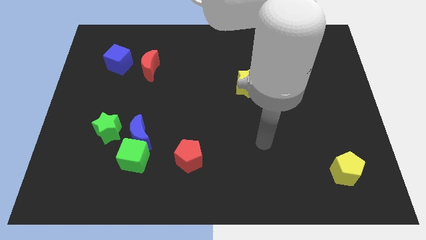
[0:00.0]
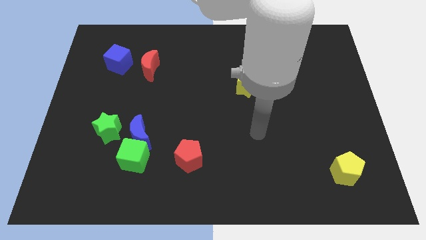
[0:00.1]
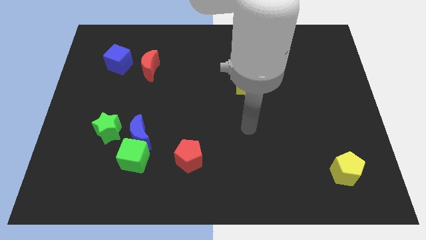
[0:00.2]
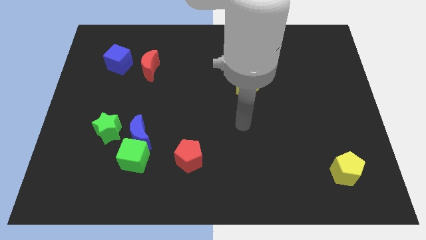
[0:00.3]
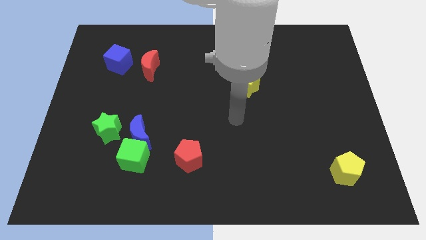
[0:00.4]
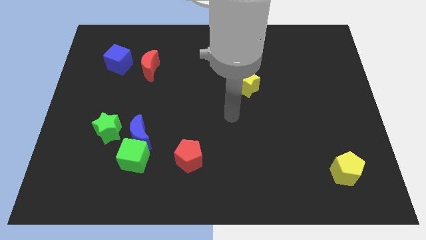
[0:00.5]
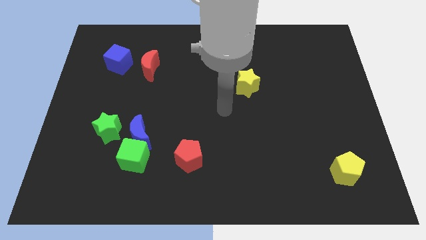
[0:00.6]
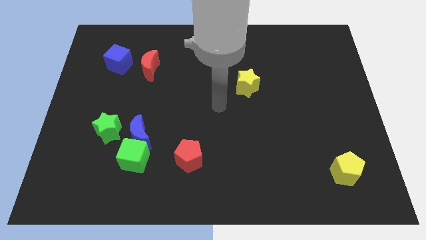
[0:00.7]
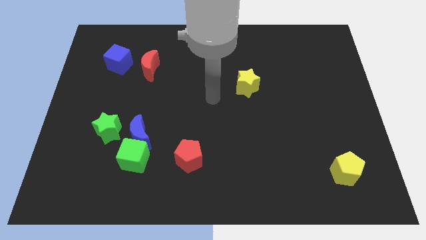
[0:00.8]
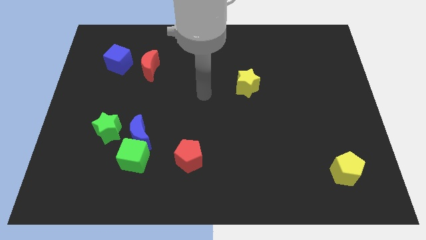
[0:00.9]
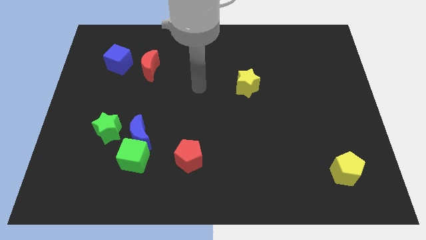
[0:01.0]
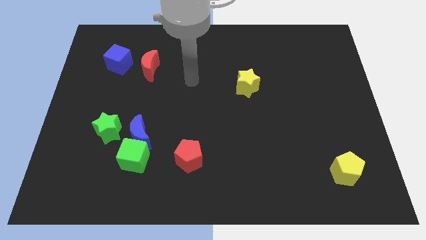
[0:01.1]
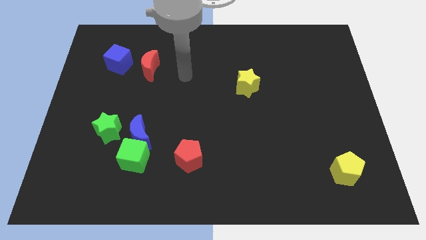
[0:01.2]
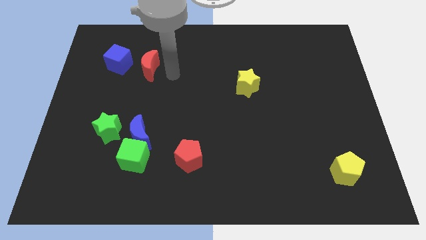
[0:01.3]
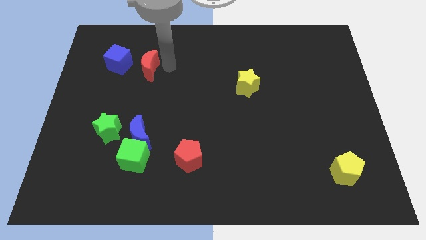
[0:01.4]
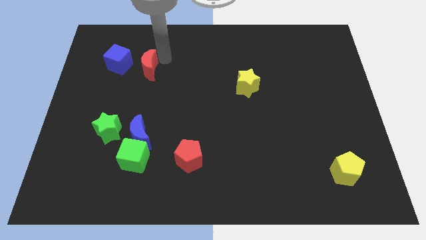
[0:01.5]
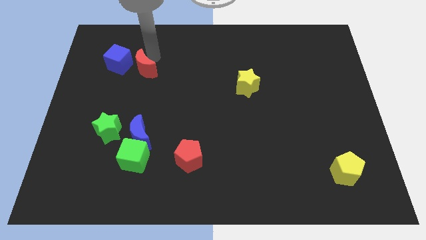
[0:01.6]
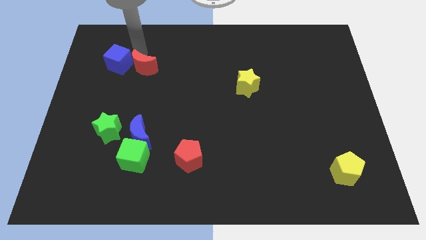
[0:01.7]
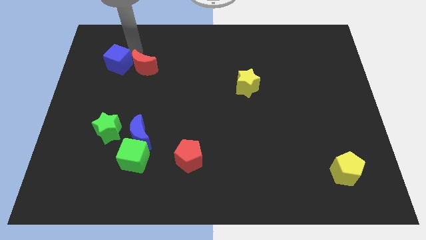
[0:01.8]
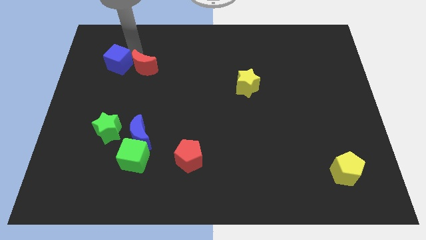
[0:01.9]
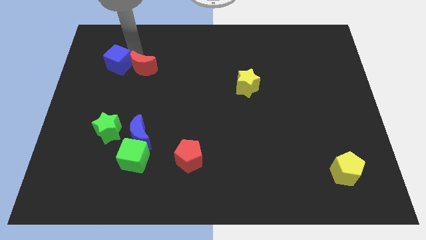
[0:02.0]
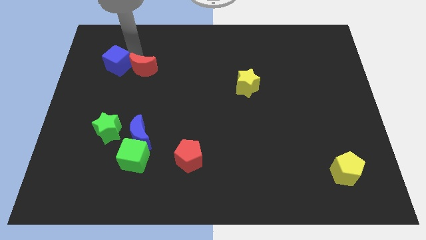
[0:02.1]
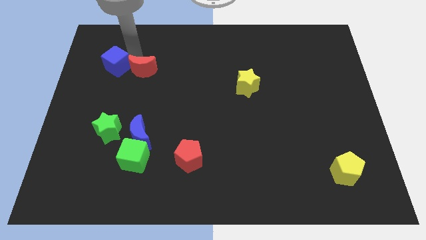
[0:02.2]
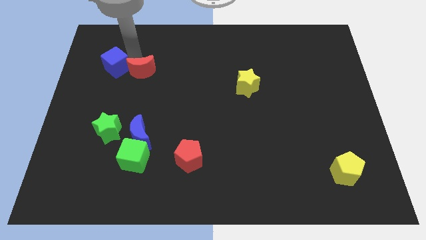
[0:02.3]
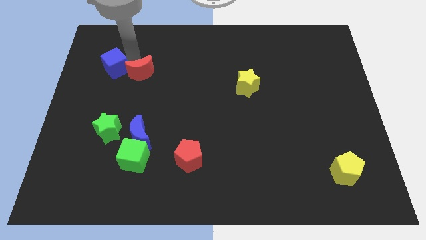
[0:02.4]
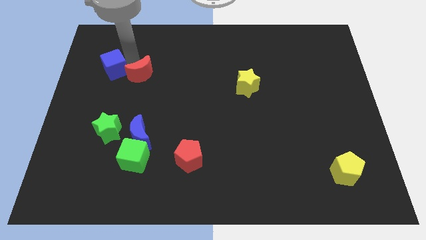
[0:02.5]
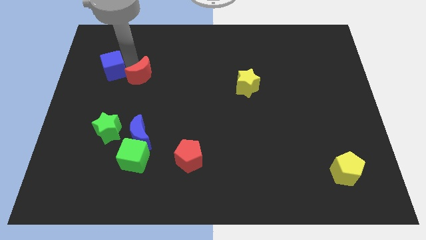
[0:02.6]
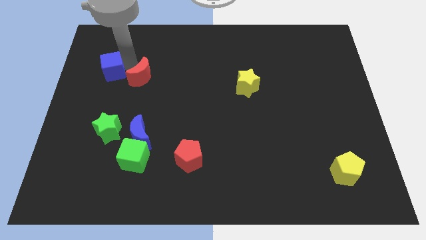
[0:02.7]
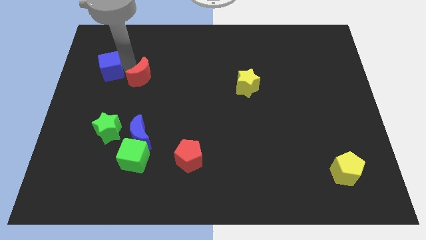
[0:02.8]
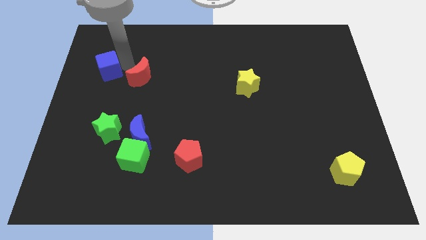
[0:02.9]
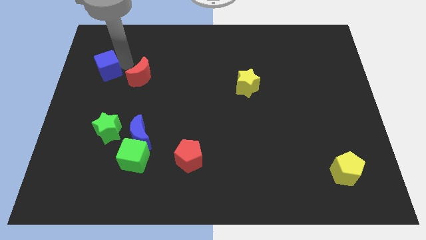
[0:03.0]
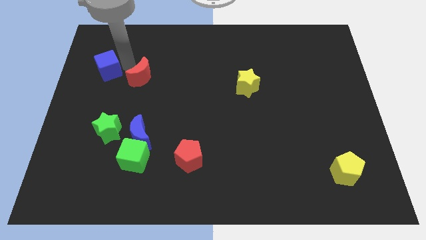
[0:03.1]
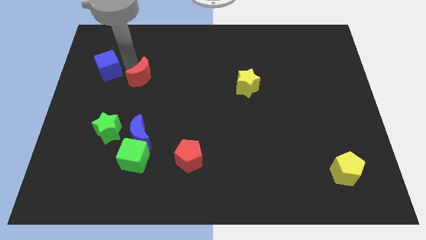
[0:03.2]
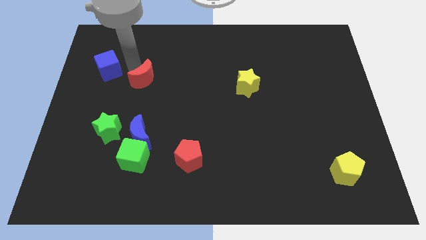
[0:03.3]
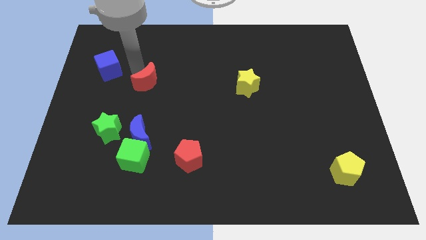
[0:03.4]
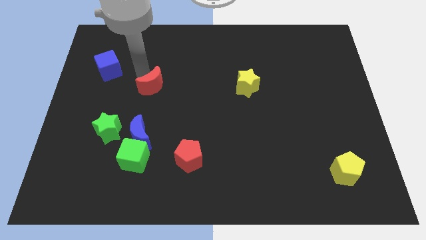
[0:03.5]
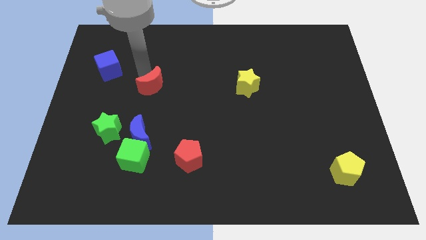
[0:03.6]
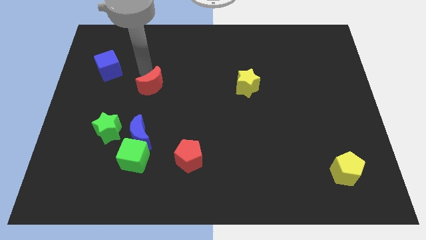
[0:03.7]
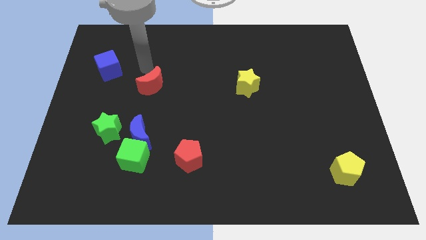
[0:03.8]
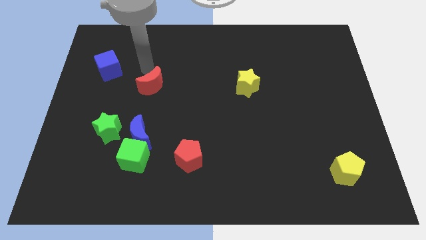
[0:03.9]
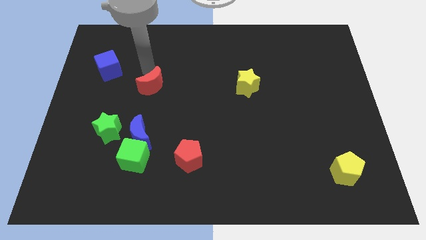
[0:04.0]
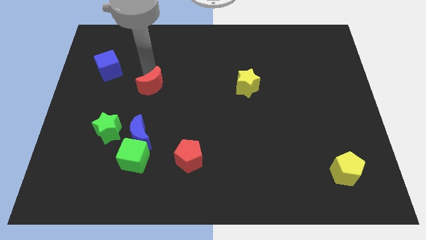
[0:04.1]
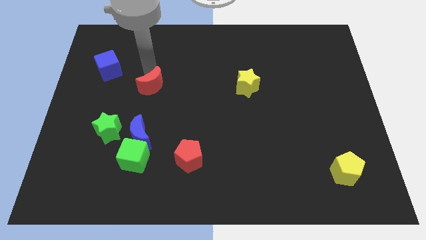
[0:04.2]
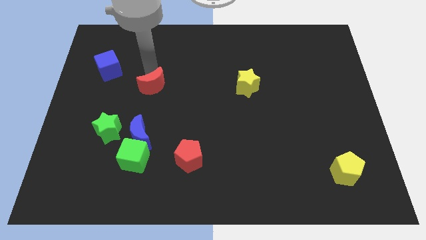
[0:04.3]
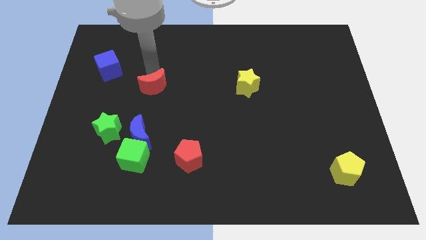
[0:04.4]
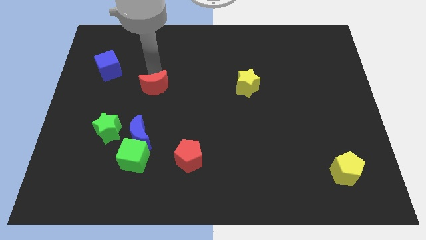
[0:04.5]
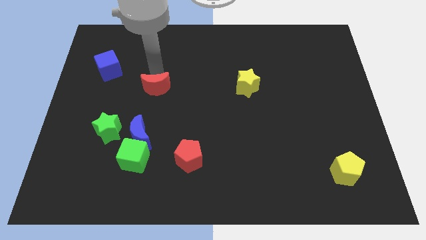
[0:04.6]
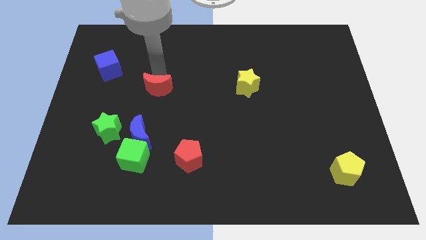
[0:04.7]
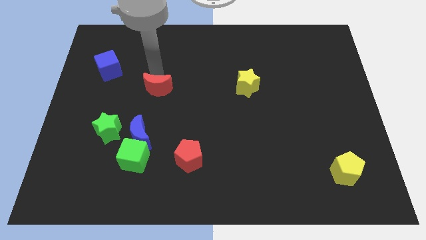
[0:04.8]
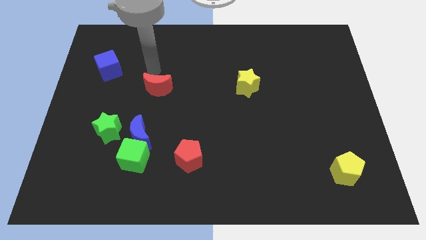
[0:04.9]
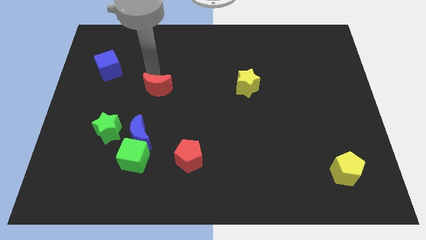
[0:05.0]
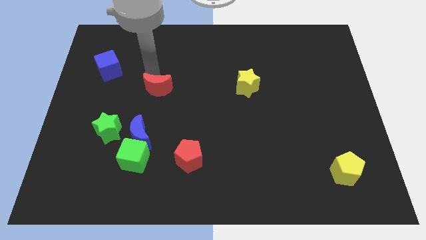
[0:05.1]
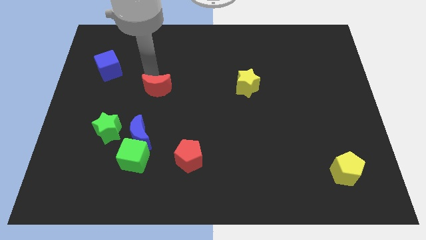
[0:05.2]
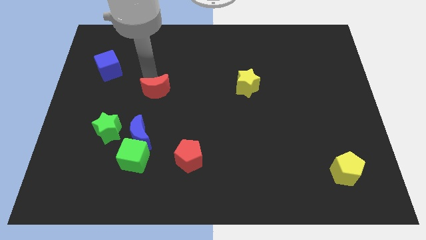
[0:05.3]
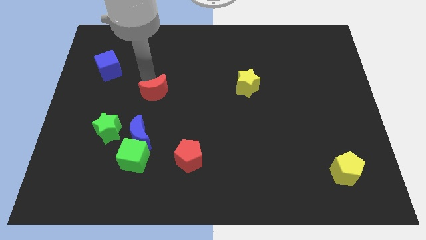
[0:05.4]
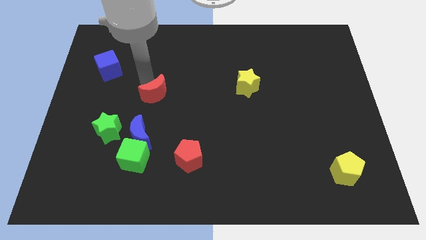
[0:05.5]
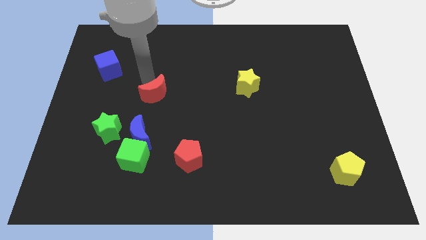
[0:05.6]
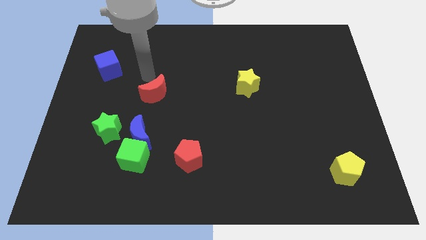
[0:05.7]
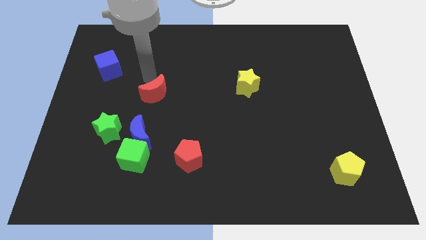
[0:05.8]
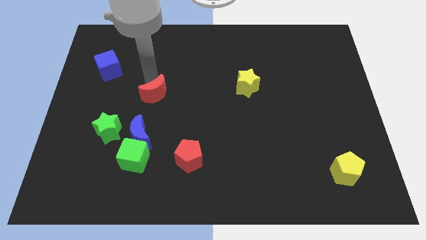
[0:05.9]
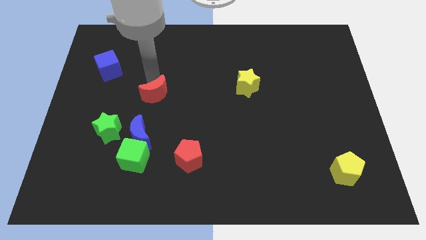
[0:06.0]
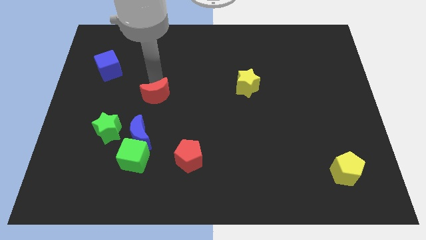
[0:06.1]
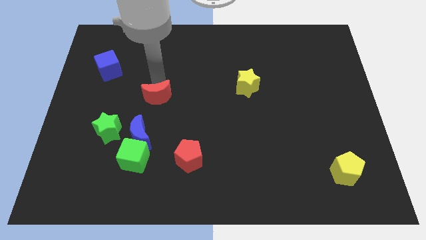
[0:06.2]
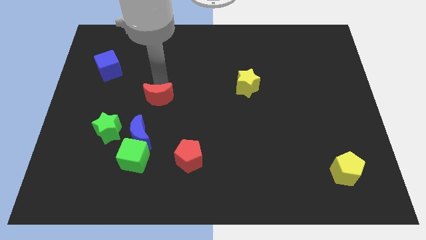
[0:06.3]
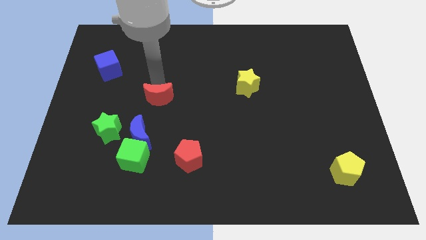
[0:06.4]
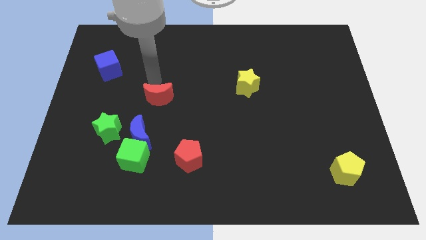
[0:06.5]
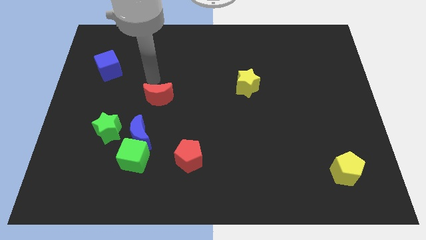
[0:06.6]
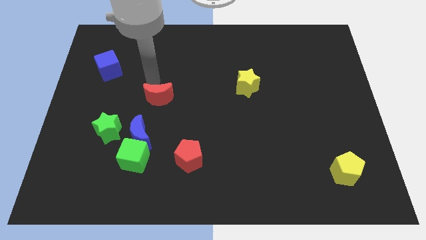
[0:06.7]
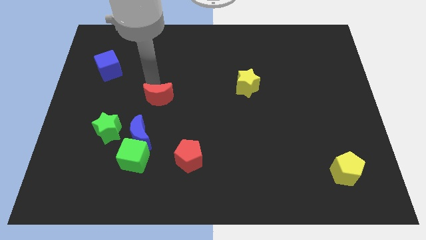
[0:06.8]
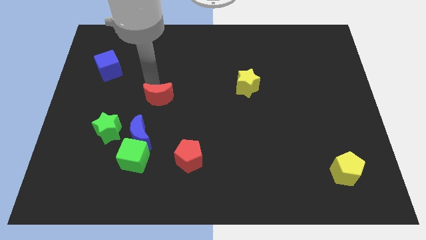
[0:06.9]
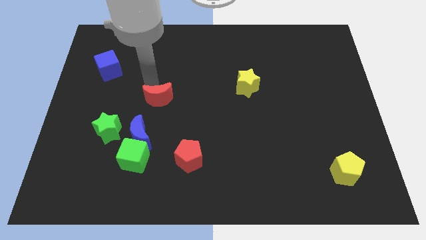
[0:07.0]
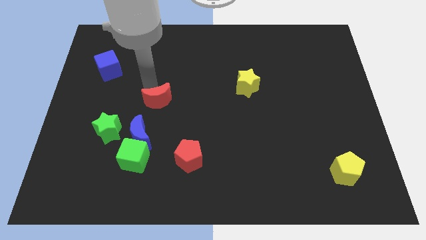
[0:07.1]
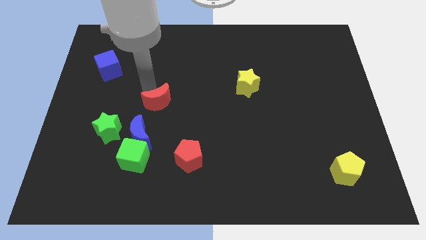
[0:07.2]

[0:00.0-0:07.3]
put the red moon to the top right of the blue moon
